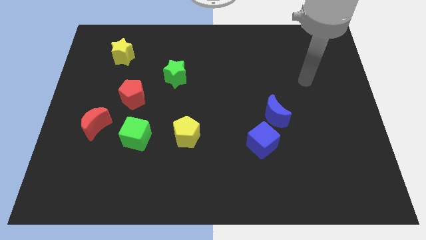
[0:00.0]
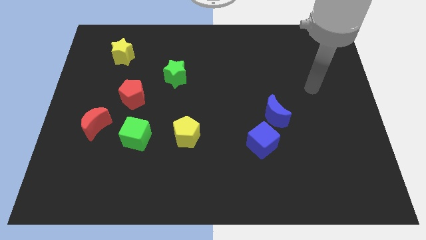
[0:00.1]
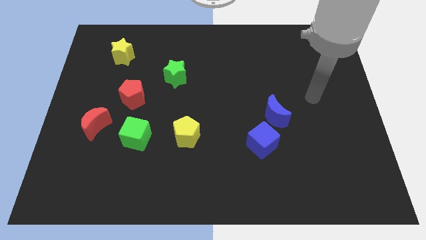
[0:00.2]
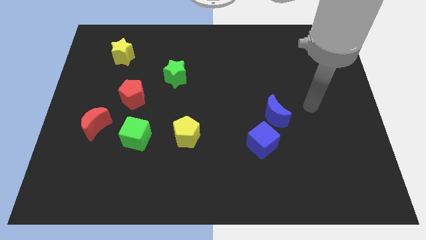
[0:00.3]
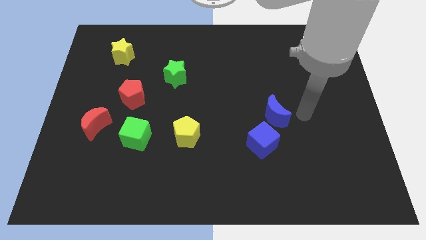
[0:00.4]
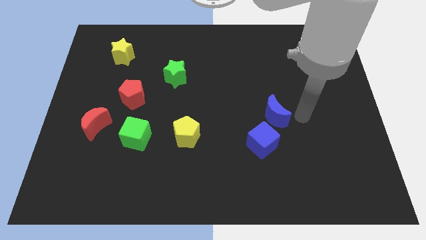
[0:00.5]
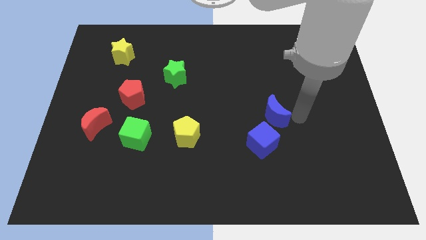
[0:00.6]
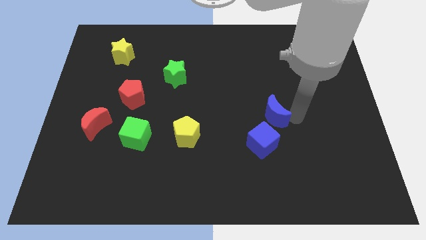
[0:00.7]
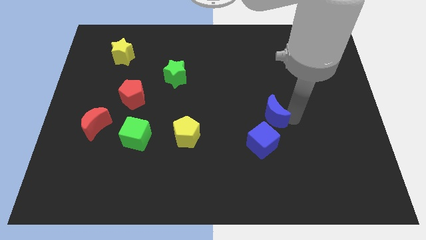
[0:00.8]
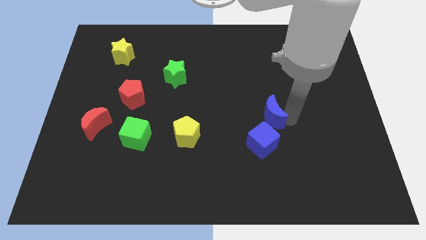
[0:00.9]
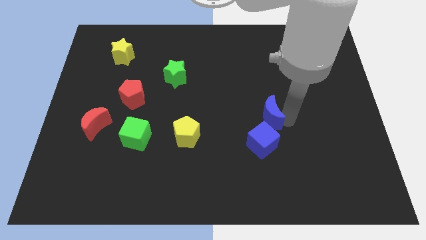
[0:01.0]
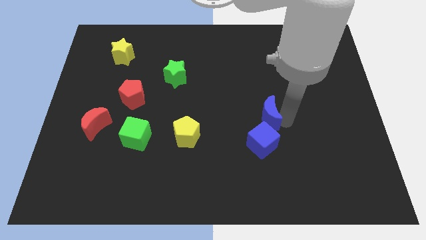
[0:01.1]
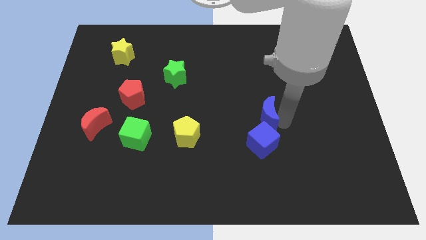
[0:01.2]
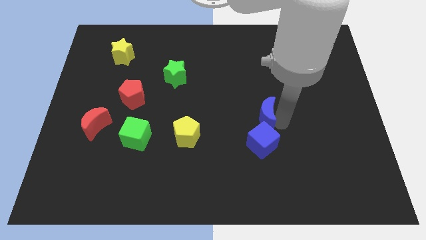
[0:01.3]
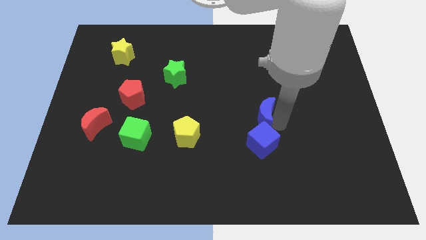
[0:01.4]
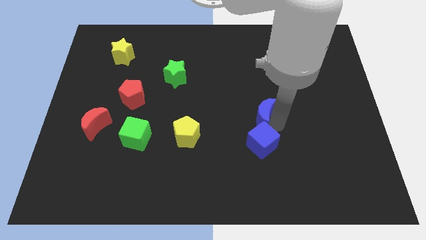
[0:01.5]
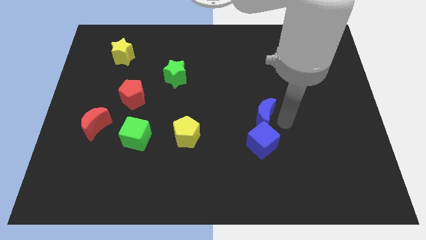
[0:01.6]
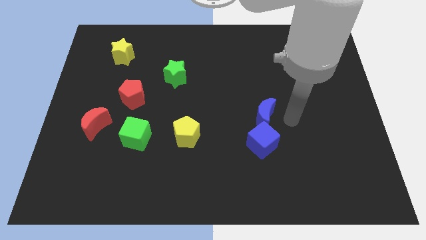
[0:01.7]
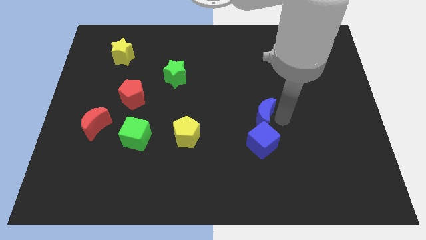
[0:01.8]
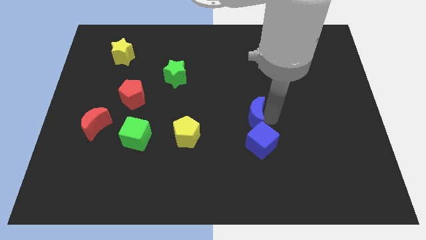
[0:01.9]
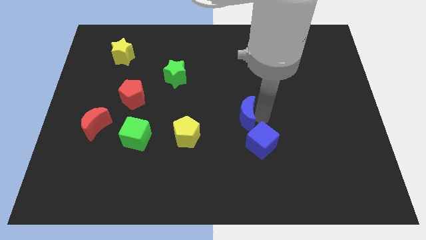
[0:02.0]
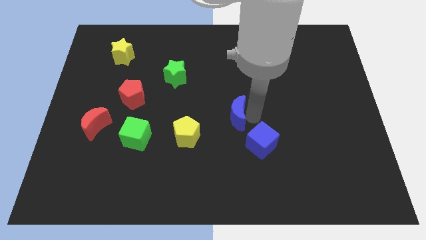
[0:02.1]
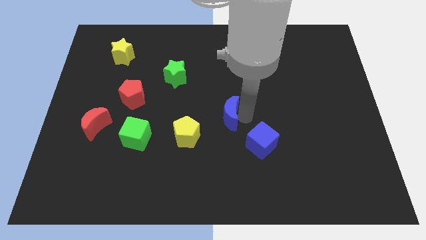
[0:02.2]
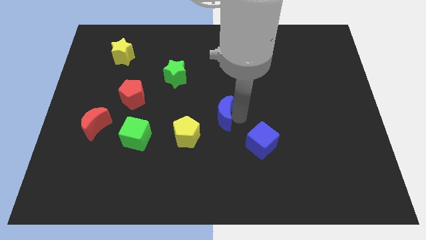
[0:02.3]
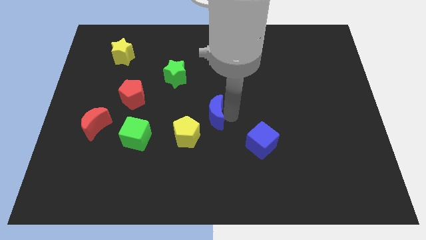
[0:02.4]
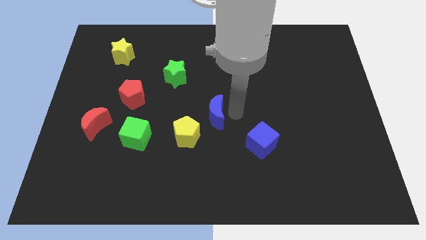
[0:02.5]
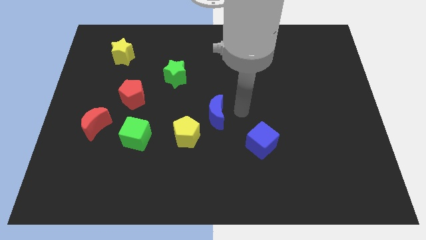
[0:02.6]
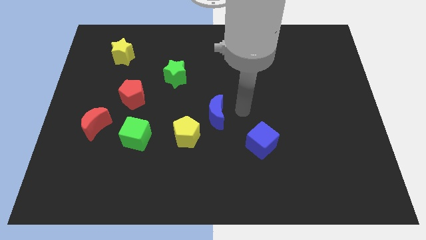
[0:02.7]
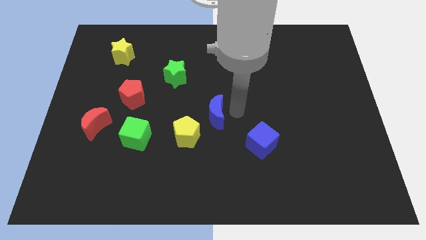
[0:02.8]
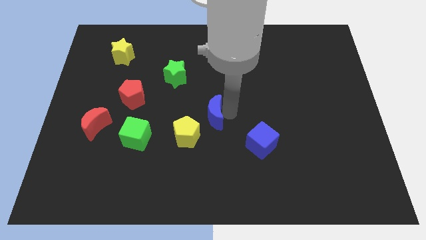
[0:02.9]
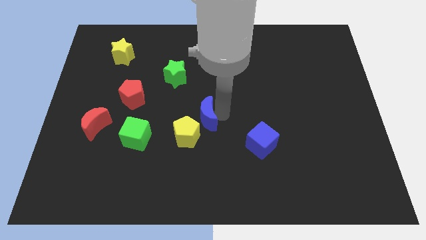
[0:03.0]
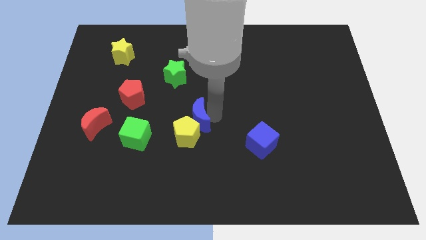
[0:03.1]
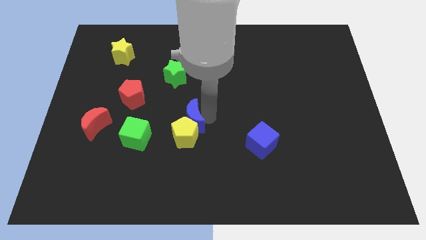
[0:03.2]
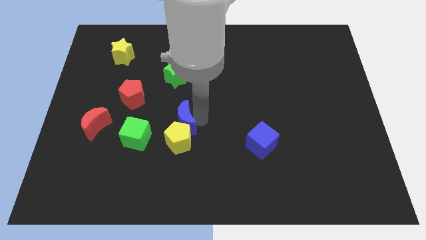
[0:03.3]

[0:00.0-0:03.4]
slide the blue moon to the left

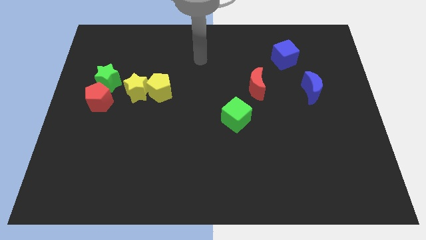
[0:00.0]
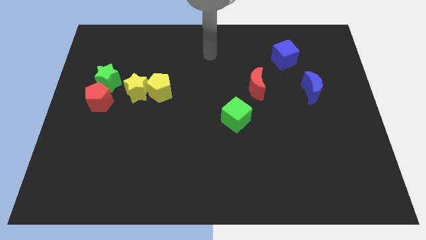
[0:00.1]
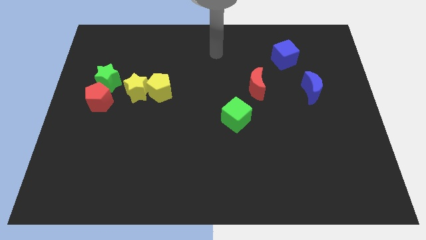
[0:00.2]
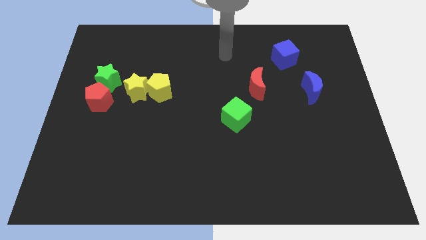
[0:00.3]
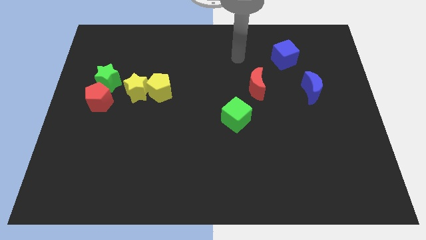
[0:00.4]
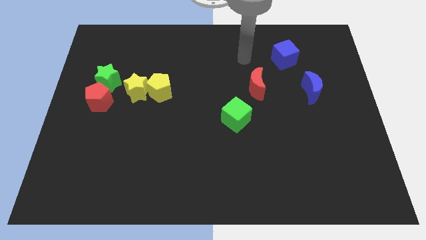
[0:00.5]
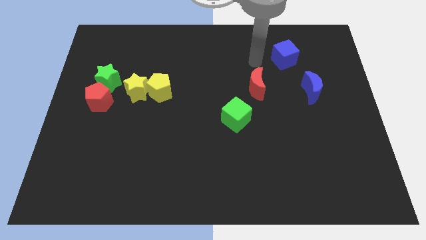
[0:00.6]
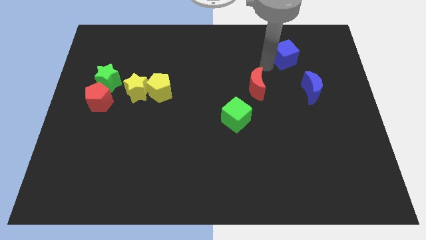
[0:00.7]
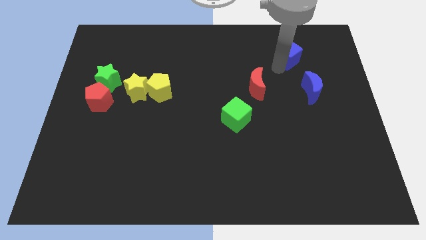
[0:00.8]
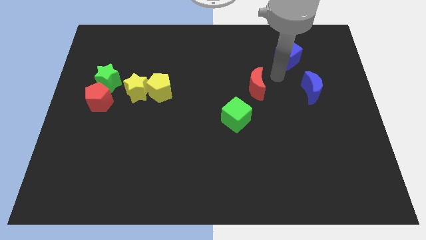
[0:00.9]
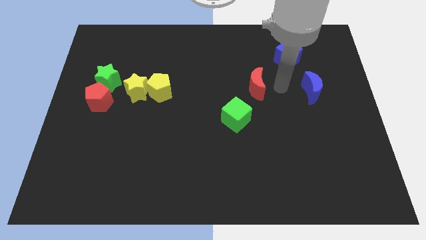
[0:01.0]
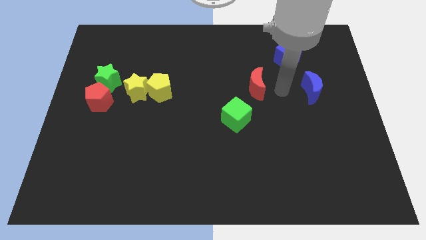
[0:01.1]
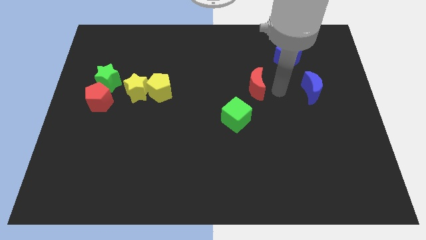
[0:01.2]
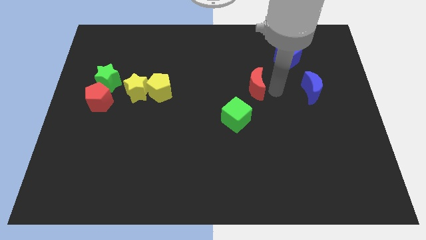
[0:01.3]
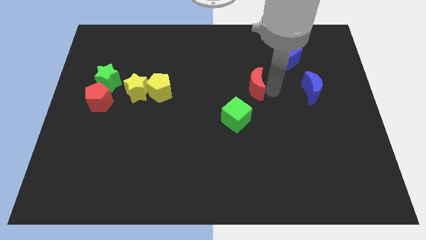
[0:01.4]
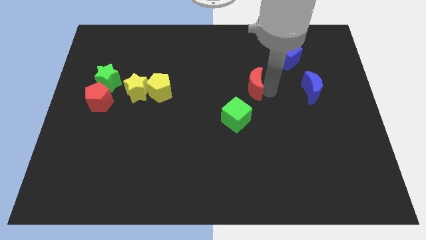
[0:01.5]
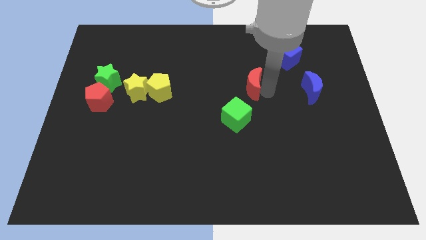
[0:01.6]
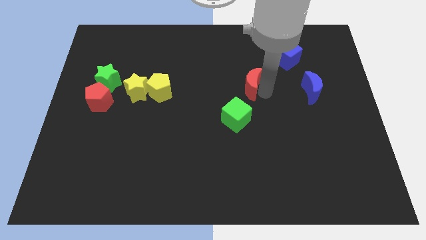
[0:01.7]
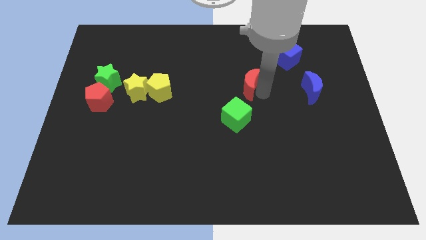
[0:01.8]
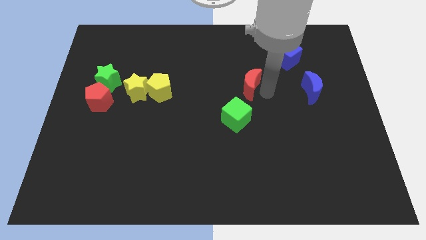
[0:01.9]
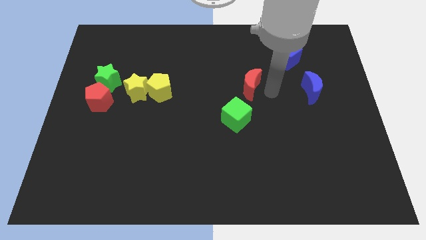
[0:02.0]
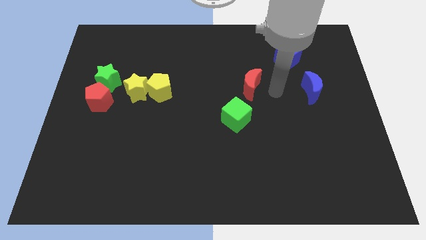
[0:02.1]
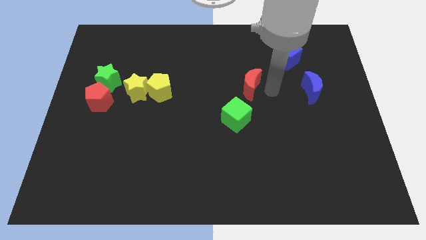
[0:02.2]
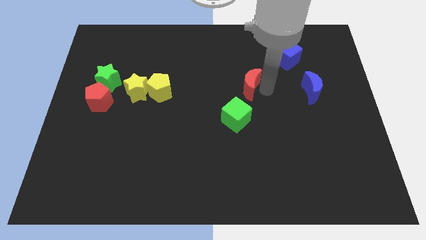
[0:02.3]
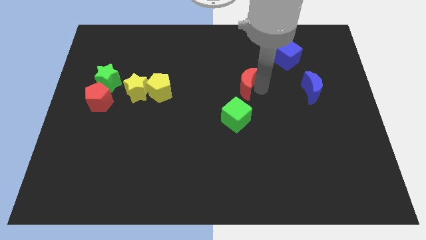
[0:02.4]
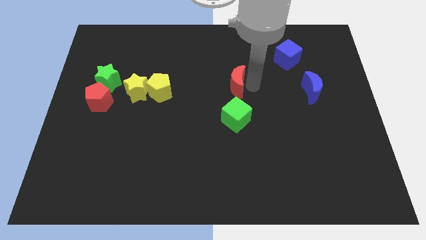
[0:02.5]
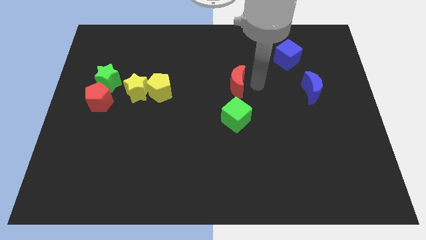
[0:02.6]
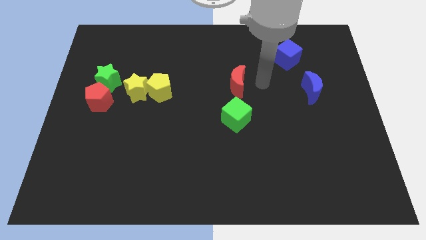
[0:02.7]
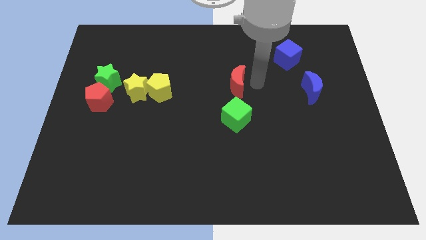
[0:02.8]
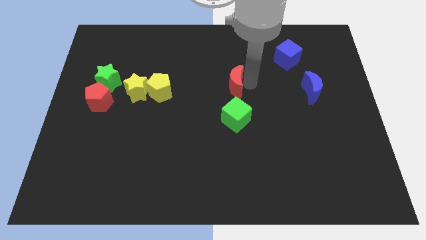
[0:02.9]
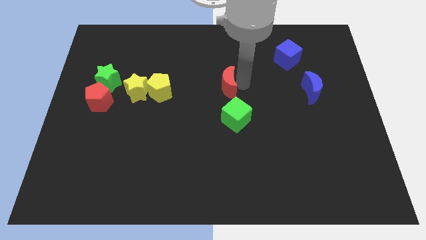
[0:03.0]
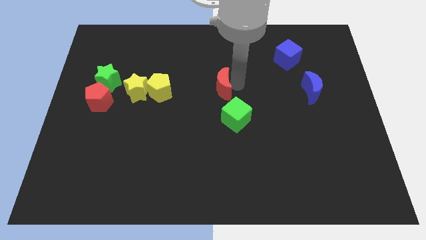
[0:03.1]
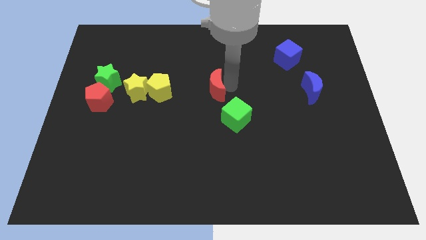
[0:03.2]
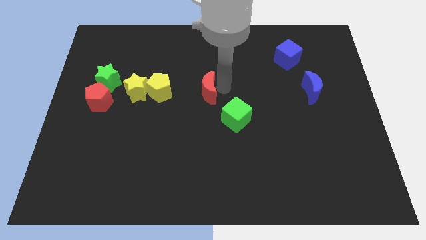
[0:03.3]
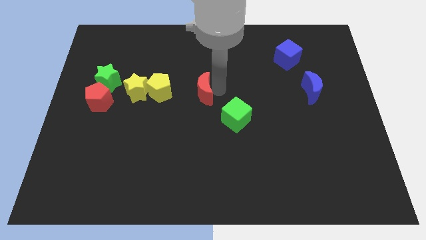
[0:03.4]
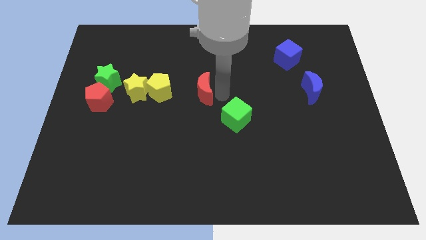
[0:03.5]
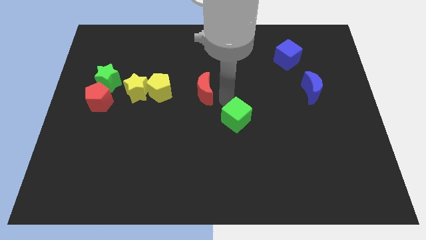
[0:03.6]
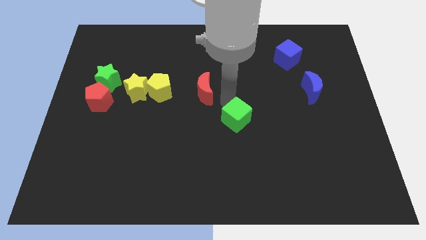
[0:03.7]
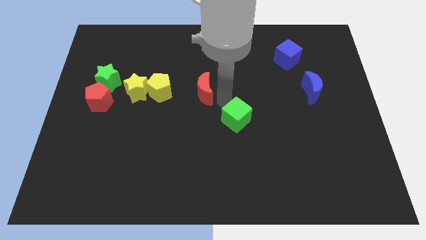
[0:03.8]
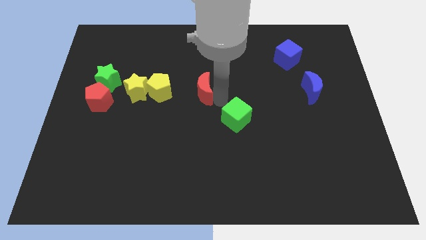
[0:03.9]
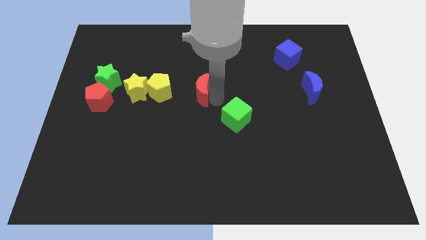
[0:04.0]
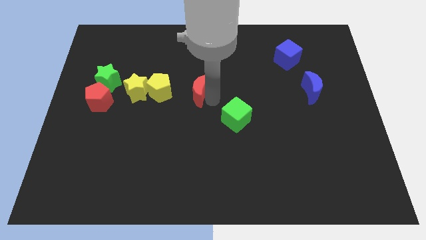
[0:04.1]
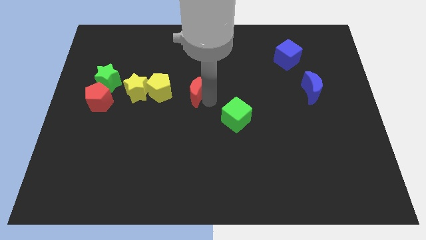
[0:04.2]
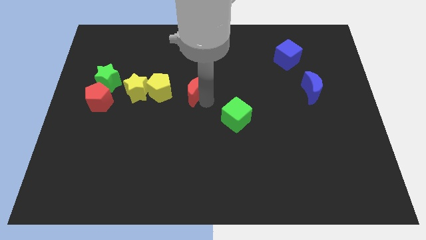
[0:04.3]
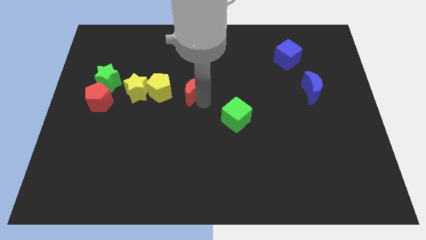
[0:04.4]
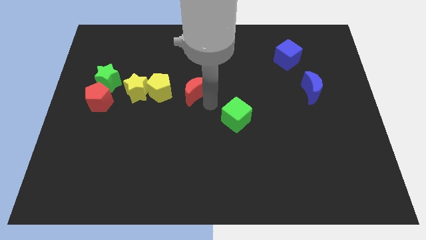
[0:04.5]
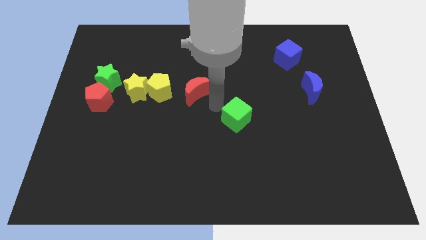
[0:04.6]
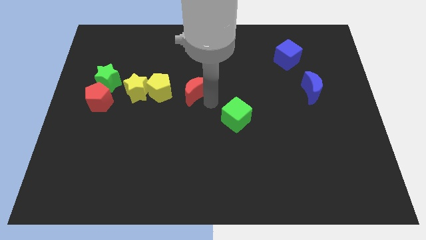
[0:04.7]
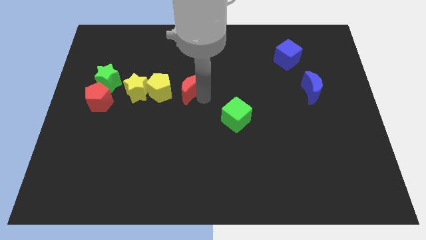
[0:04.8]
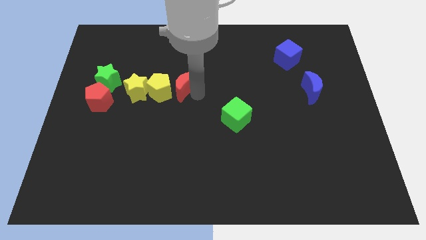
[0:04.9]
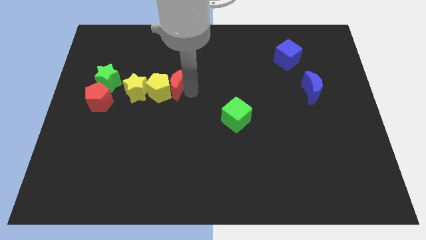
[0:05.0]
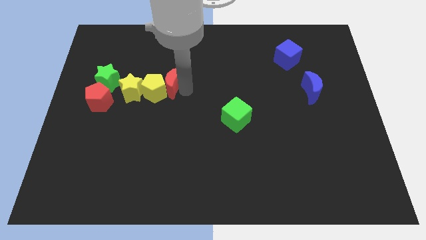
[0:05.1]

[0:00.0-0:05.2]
push the red moon to the left

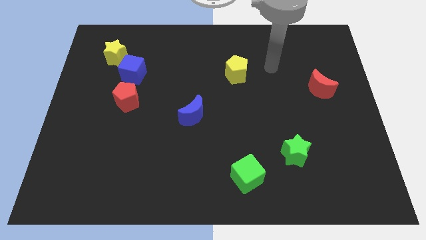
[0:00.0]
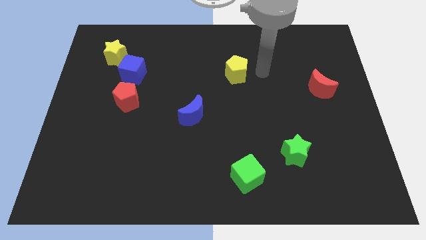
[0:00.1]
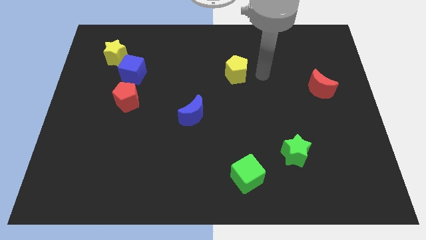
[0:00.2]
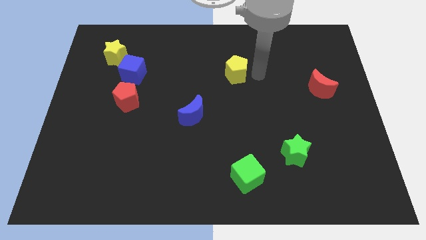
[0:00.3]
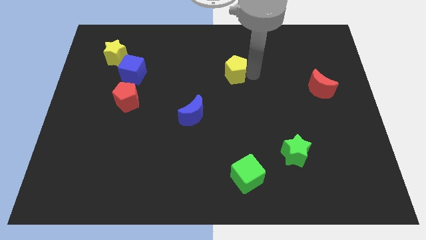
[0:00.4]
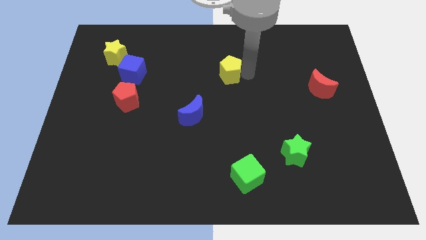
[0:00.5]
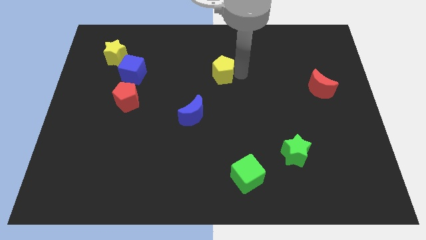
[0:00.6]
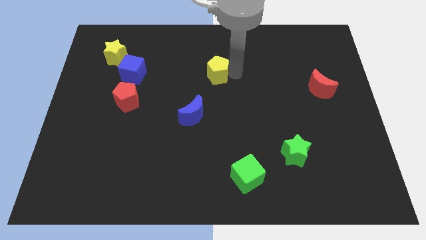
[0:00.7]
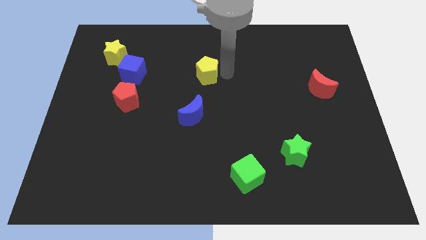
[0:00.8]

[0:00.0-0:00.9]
move the yellow pentagon to the left somewhat
